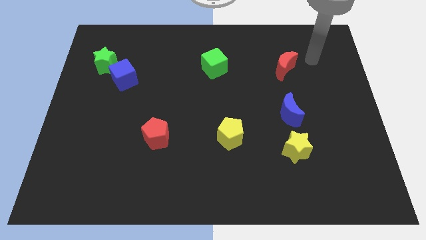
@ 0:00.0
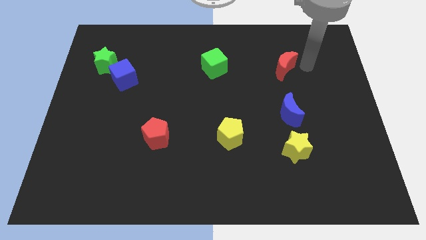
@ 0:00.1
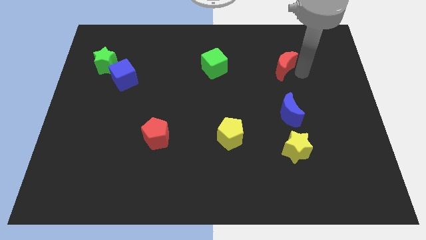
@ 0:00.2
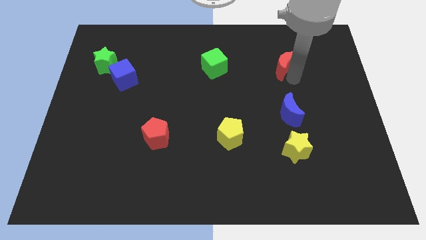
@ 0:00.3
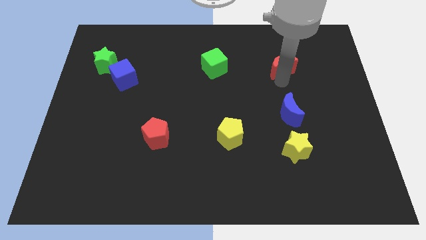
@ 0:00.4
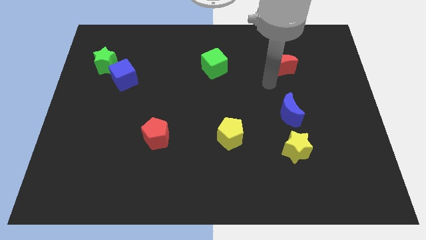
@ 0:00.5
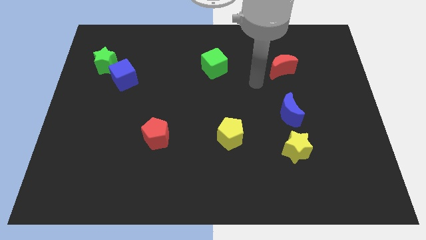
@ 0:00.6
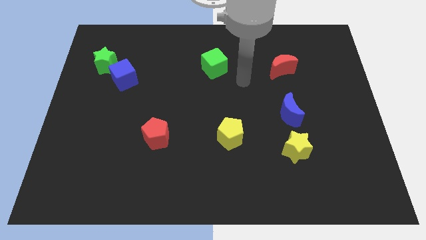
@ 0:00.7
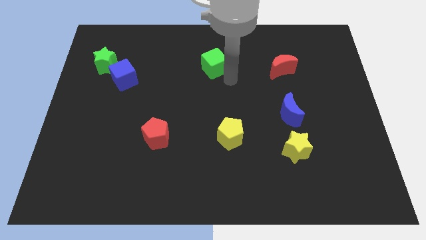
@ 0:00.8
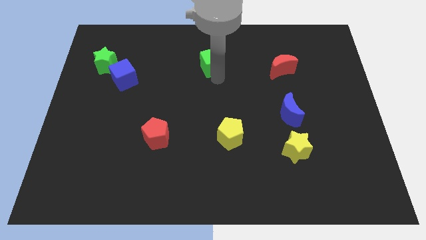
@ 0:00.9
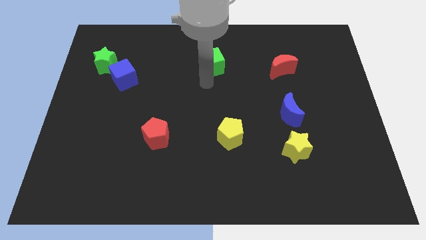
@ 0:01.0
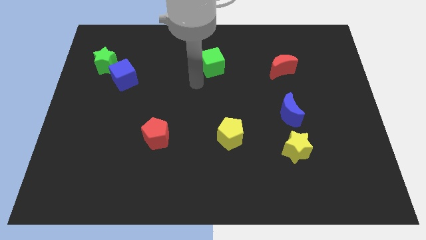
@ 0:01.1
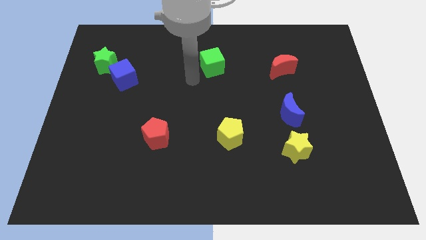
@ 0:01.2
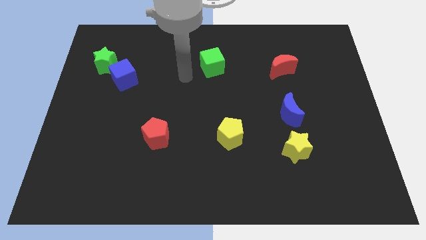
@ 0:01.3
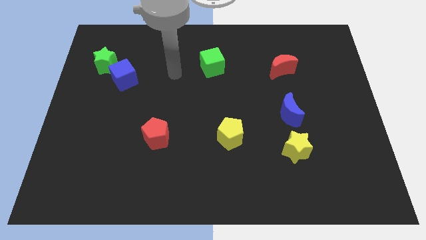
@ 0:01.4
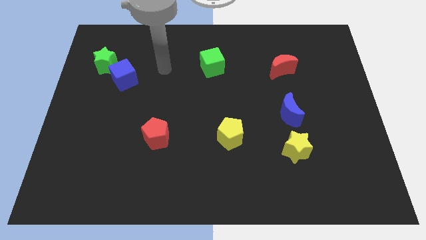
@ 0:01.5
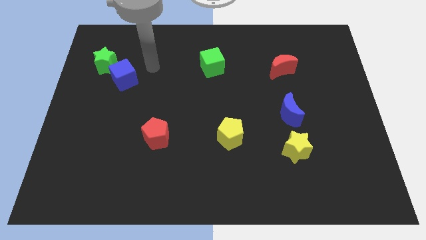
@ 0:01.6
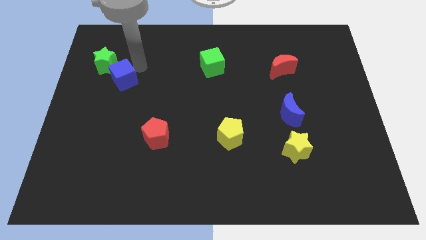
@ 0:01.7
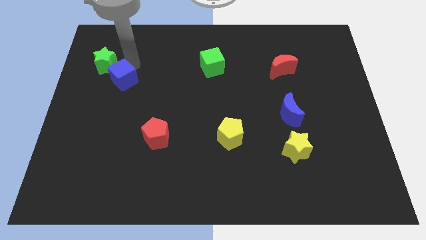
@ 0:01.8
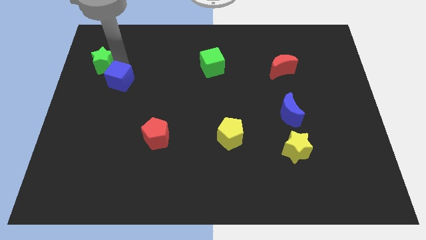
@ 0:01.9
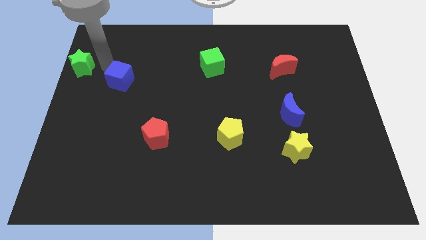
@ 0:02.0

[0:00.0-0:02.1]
separate the blue cube from the green star

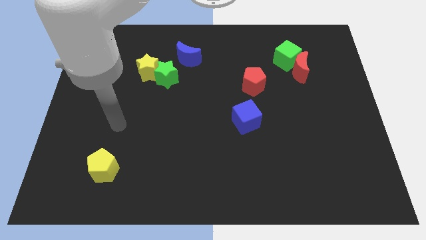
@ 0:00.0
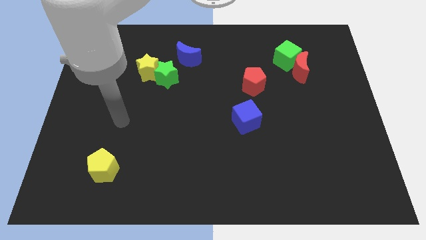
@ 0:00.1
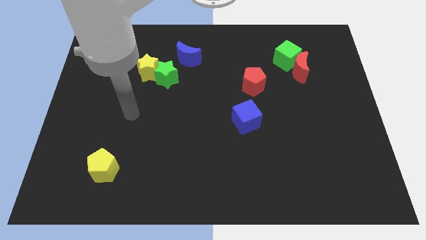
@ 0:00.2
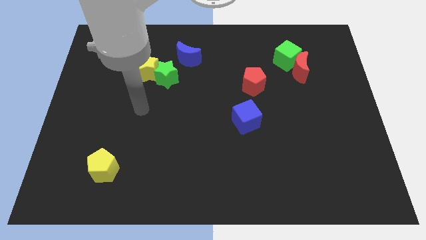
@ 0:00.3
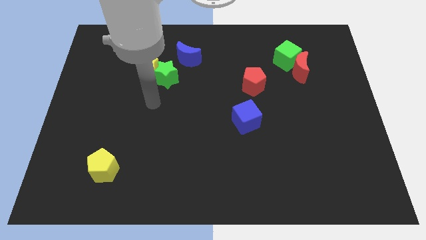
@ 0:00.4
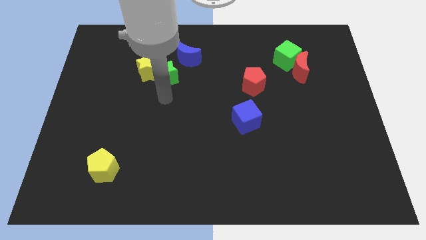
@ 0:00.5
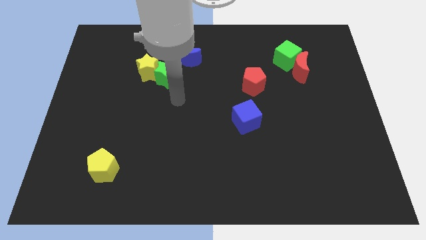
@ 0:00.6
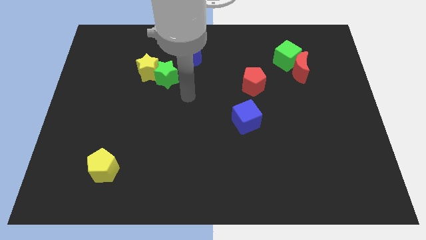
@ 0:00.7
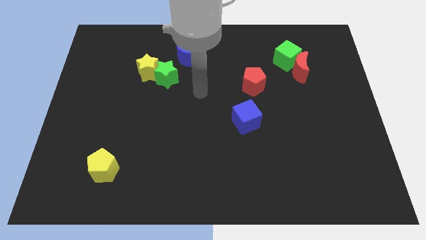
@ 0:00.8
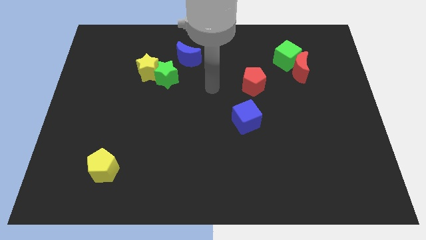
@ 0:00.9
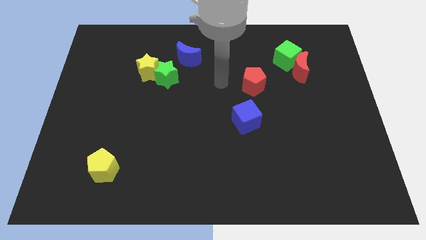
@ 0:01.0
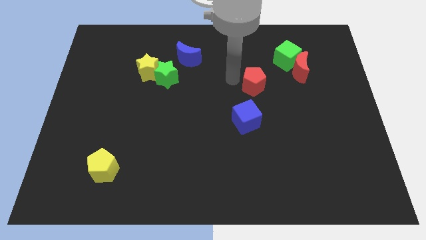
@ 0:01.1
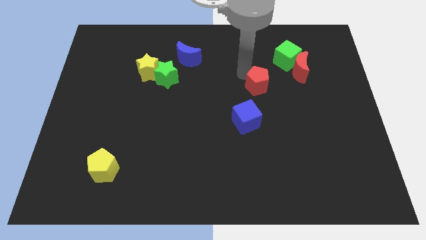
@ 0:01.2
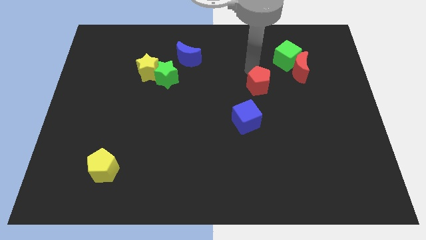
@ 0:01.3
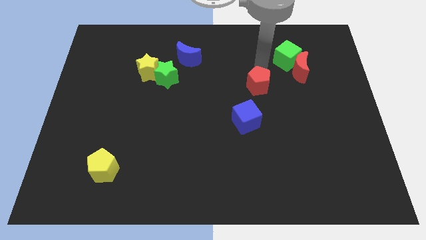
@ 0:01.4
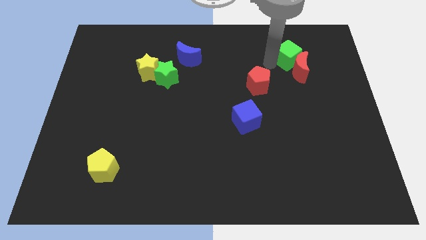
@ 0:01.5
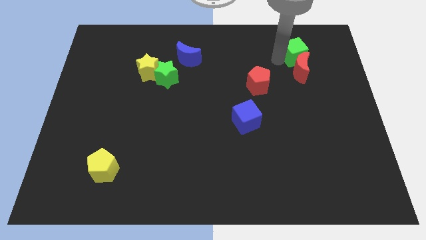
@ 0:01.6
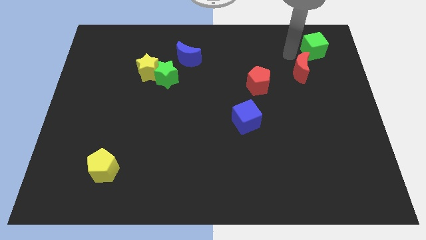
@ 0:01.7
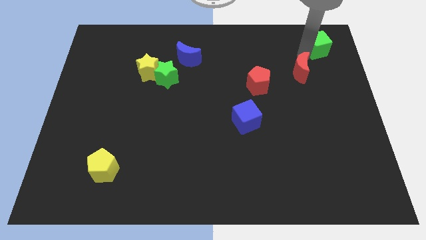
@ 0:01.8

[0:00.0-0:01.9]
pull the red moon apart from the green cube

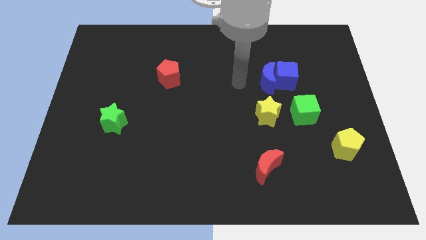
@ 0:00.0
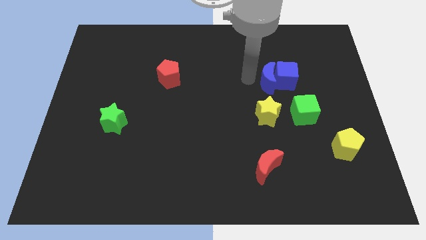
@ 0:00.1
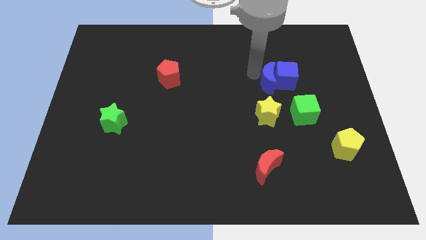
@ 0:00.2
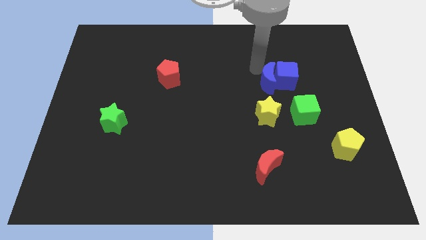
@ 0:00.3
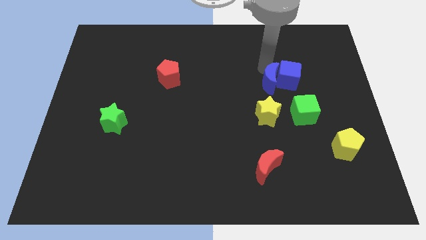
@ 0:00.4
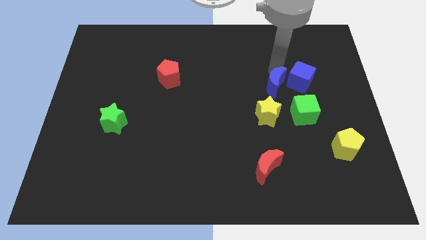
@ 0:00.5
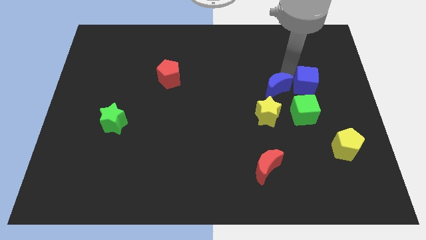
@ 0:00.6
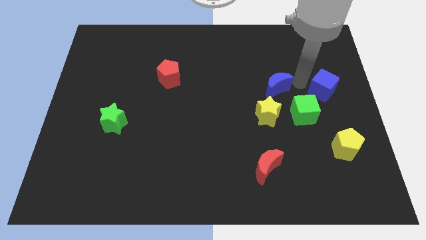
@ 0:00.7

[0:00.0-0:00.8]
pull the blue moon apart from the blue cube

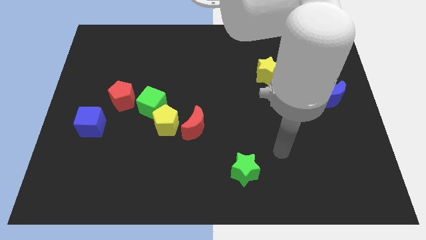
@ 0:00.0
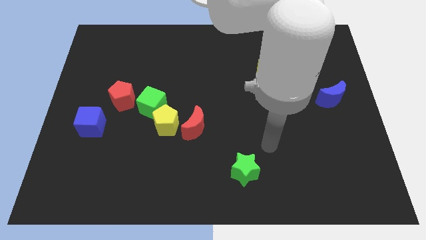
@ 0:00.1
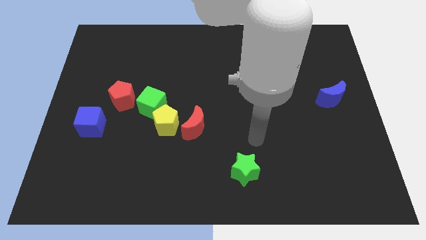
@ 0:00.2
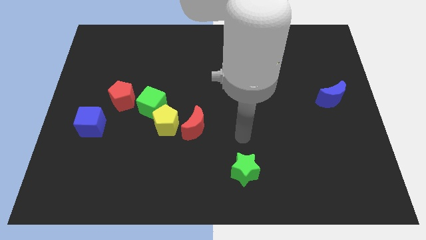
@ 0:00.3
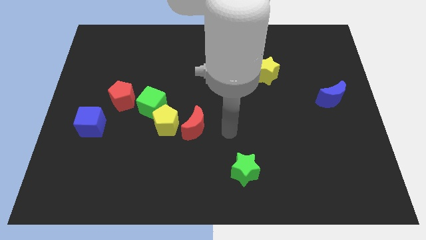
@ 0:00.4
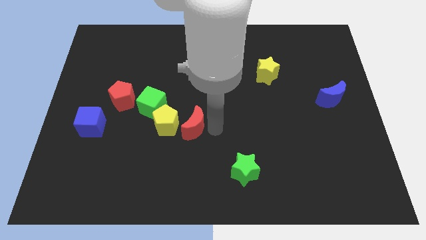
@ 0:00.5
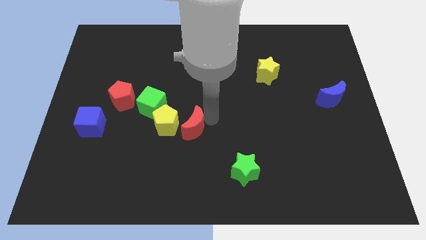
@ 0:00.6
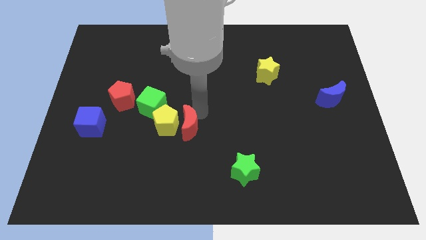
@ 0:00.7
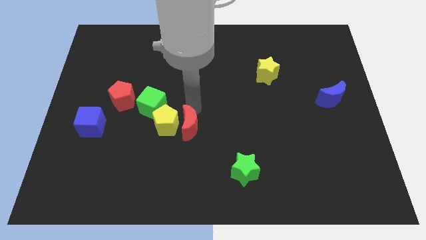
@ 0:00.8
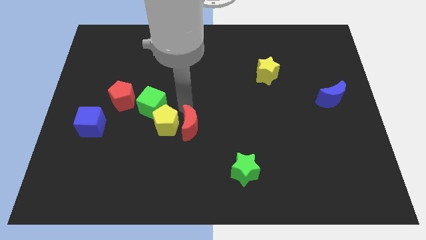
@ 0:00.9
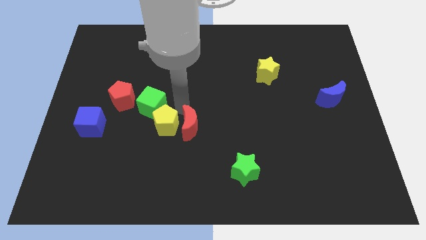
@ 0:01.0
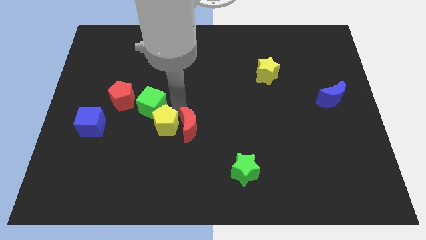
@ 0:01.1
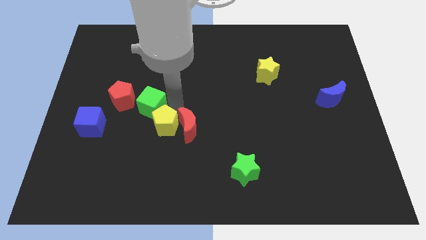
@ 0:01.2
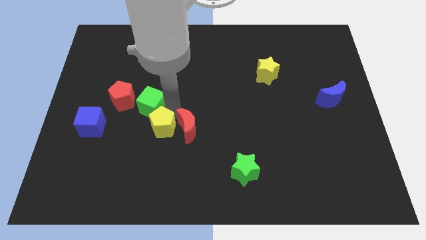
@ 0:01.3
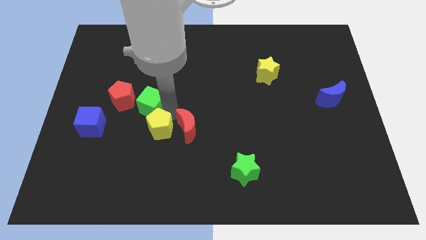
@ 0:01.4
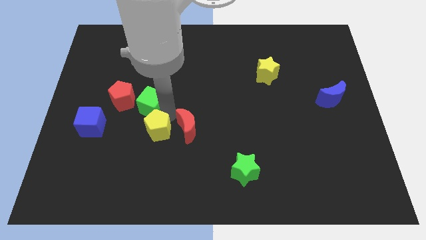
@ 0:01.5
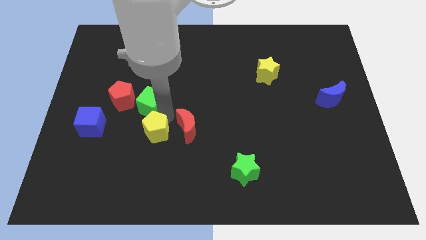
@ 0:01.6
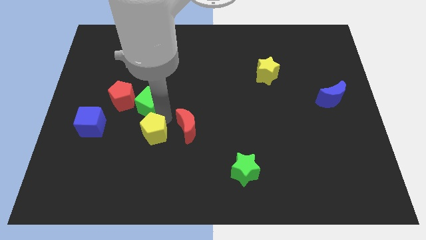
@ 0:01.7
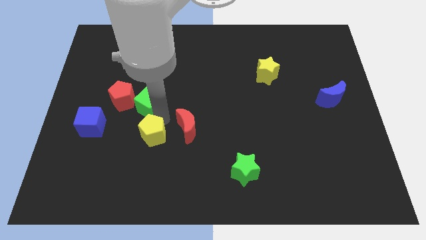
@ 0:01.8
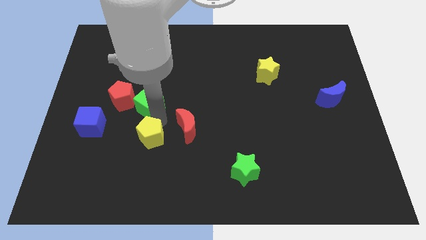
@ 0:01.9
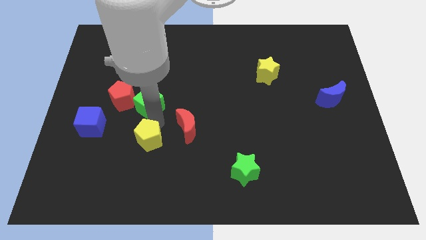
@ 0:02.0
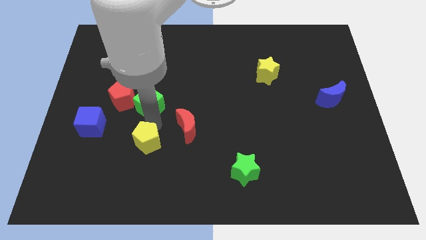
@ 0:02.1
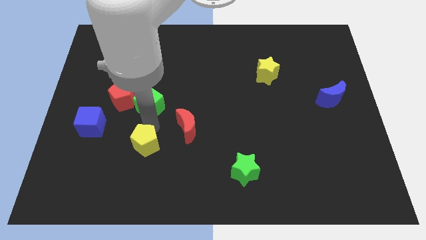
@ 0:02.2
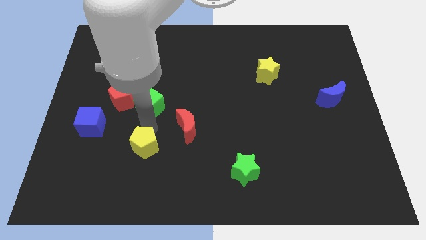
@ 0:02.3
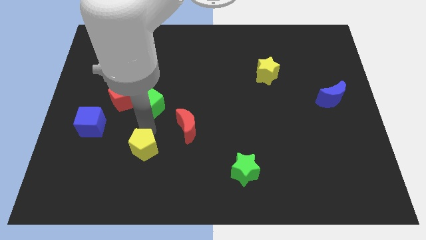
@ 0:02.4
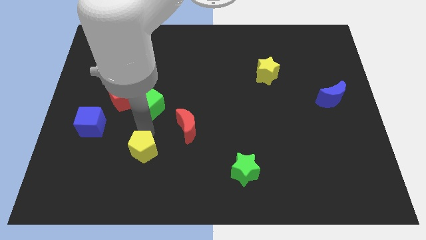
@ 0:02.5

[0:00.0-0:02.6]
pull the yellow pentagon apart from the green cube and red moon

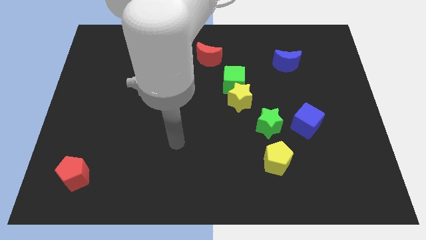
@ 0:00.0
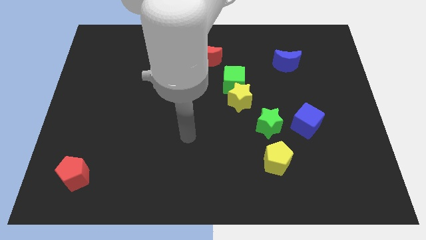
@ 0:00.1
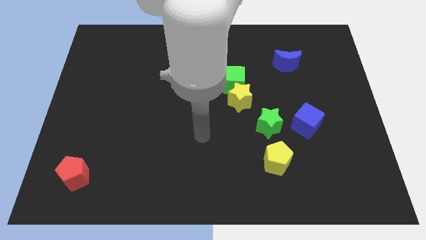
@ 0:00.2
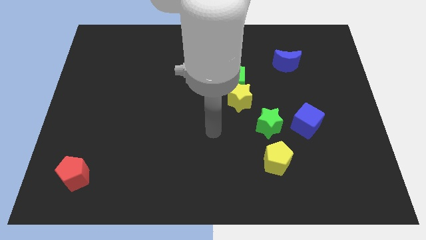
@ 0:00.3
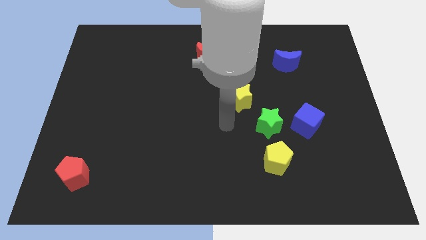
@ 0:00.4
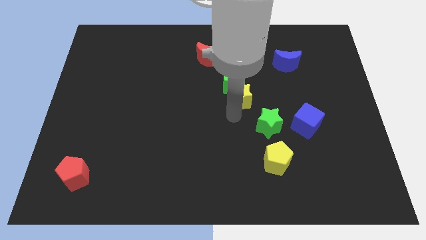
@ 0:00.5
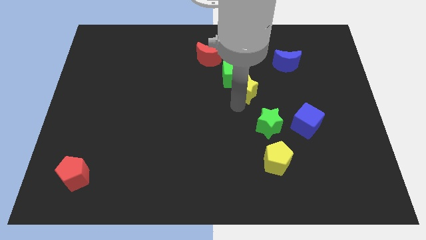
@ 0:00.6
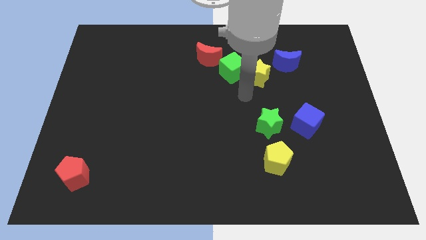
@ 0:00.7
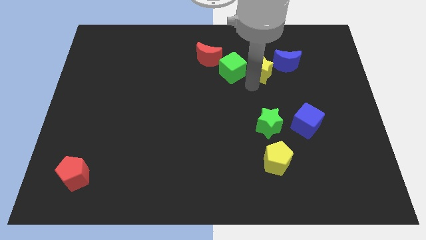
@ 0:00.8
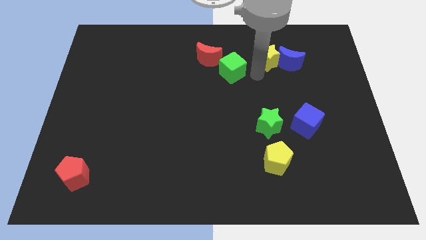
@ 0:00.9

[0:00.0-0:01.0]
separate the green cube from the yellow star

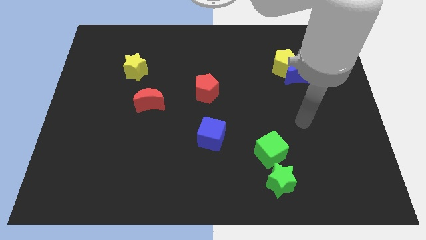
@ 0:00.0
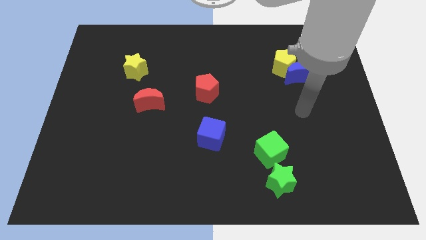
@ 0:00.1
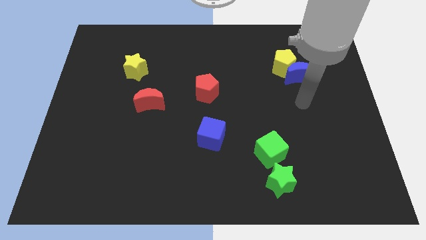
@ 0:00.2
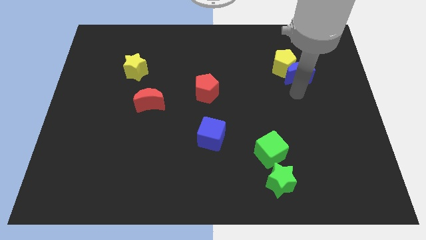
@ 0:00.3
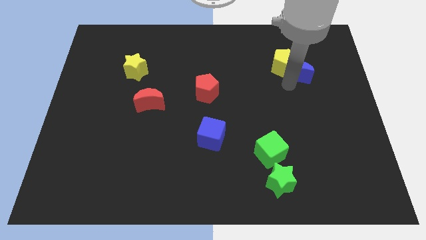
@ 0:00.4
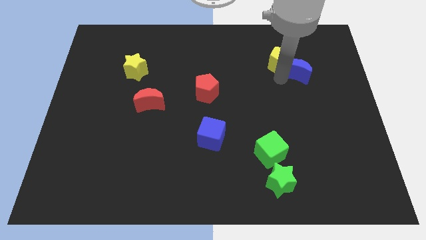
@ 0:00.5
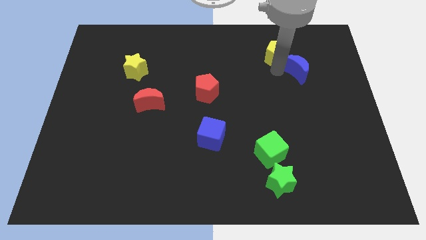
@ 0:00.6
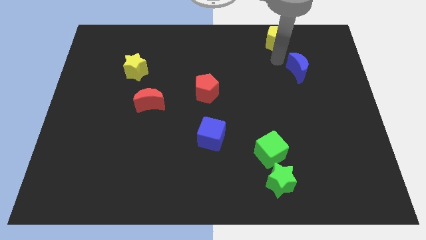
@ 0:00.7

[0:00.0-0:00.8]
pull the blue moon apart from the yellow pentagon

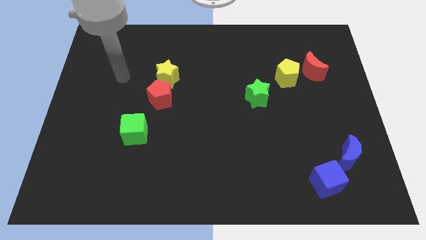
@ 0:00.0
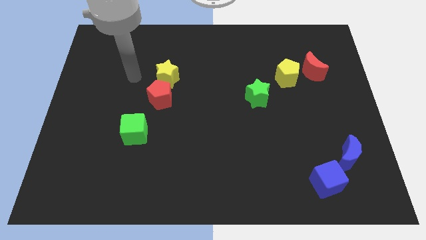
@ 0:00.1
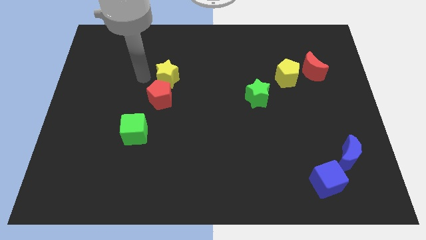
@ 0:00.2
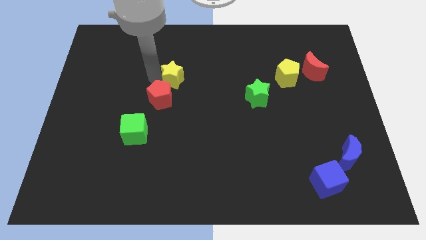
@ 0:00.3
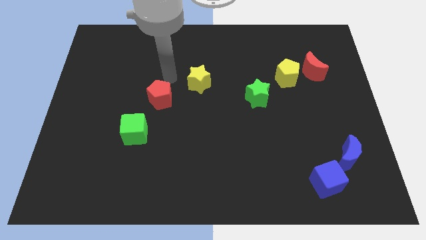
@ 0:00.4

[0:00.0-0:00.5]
pull the red pentagon apart from the yellow star
